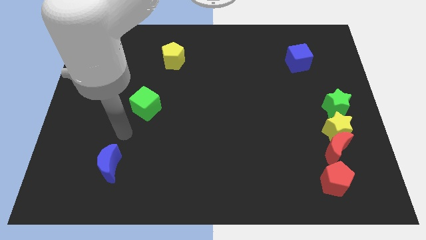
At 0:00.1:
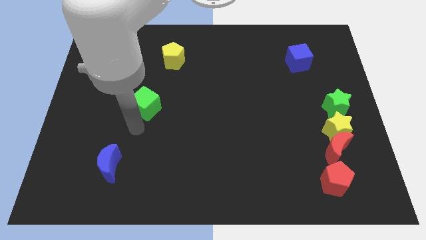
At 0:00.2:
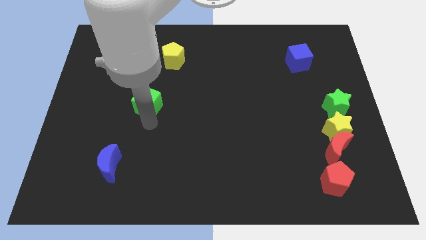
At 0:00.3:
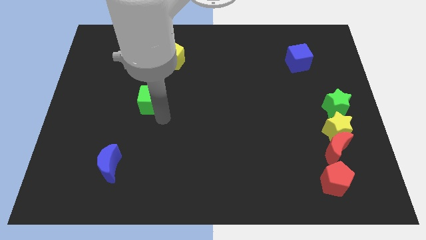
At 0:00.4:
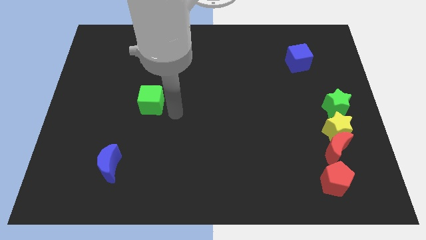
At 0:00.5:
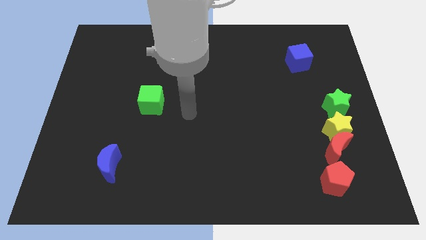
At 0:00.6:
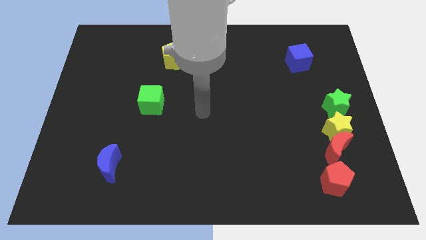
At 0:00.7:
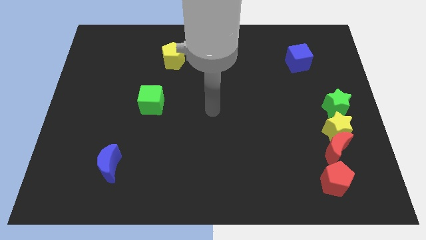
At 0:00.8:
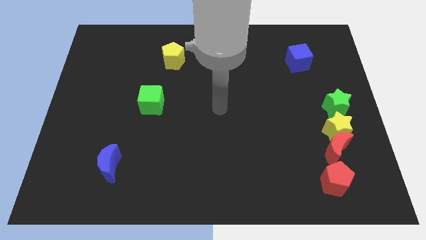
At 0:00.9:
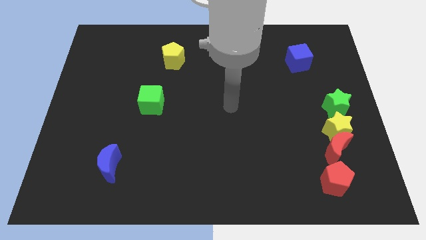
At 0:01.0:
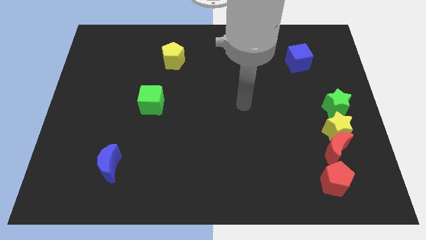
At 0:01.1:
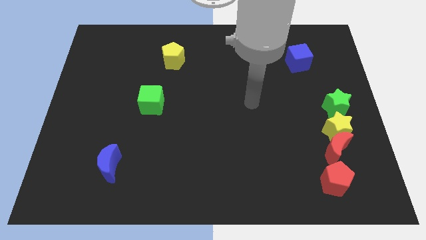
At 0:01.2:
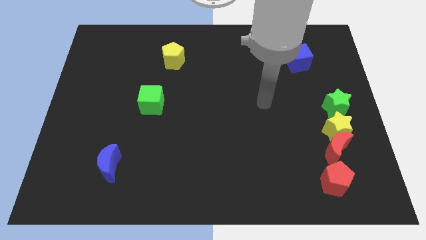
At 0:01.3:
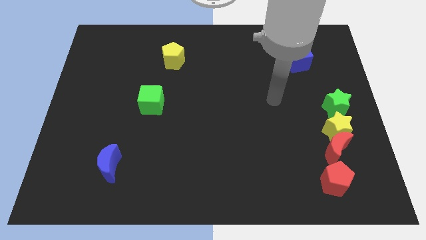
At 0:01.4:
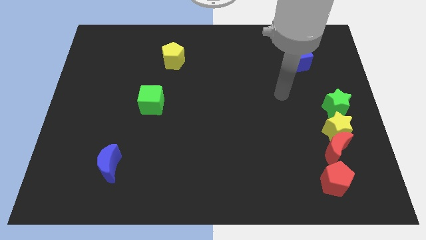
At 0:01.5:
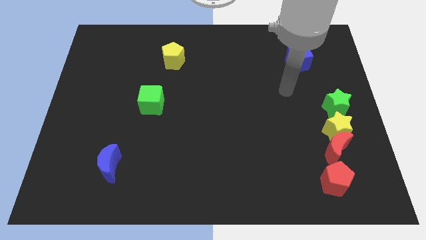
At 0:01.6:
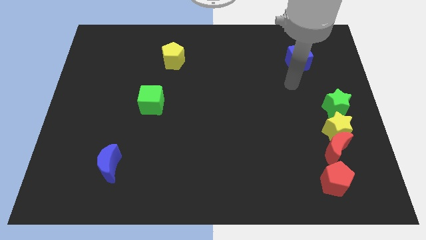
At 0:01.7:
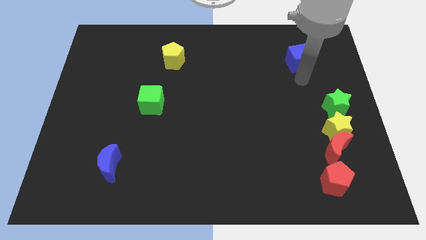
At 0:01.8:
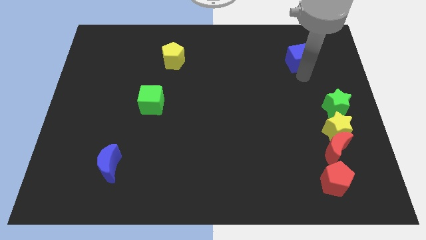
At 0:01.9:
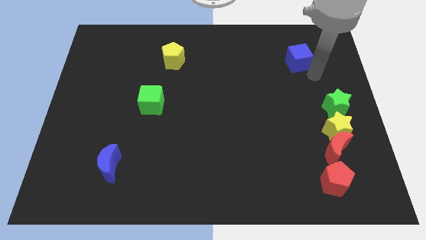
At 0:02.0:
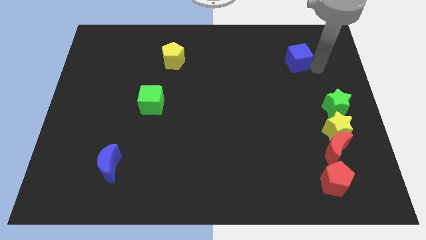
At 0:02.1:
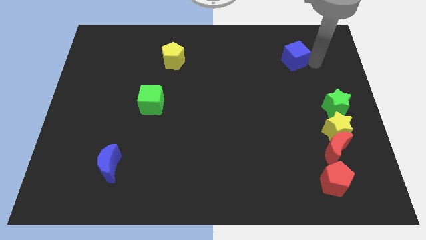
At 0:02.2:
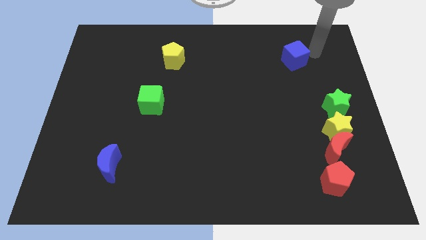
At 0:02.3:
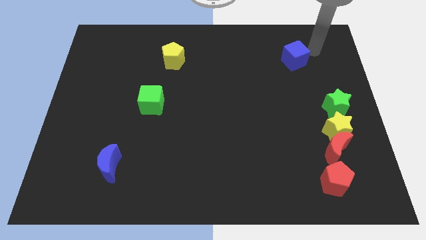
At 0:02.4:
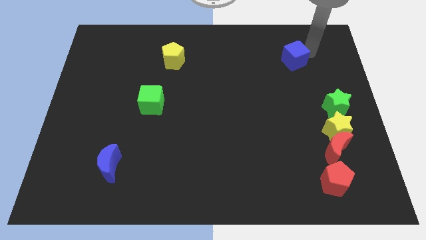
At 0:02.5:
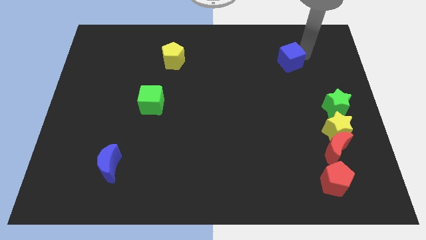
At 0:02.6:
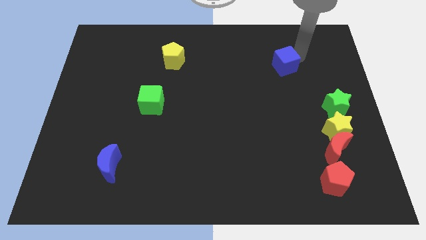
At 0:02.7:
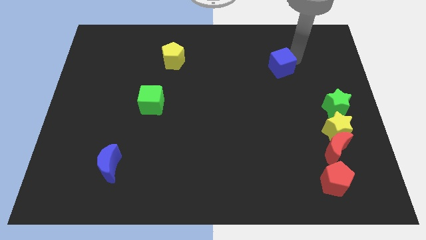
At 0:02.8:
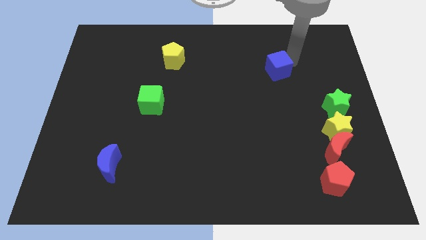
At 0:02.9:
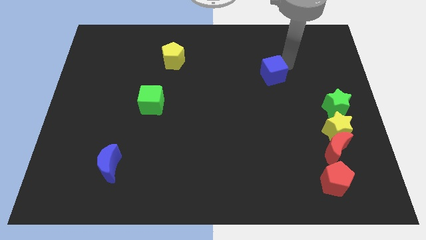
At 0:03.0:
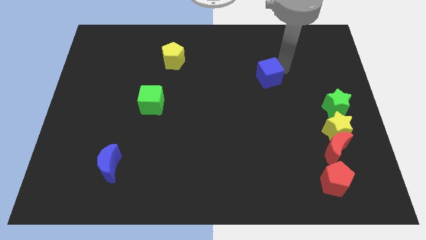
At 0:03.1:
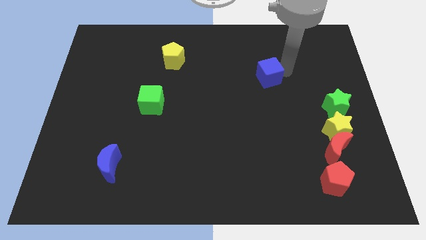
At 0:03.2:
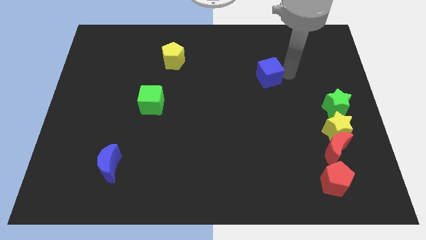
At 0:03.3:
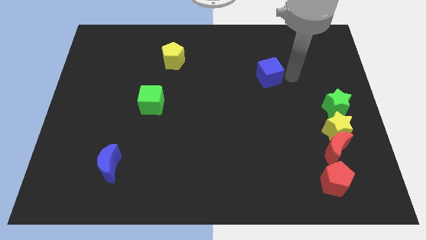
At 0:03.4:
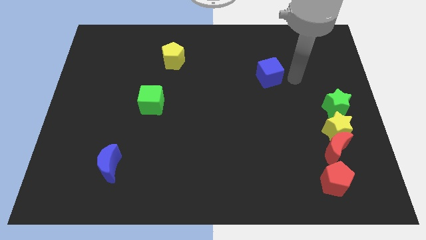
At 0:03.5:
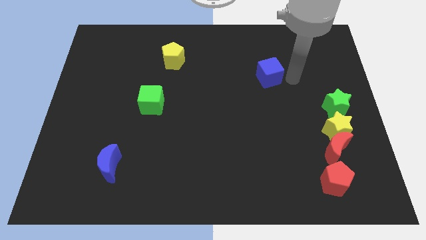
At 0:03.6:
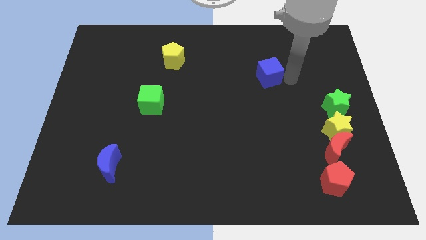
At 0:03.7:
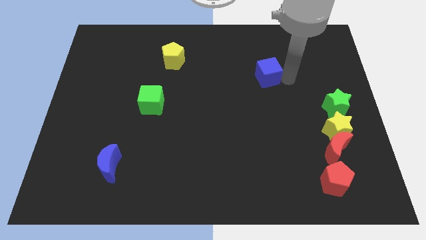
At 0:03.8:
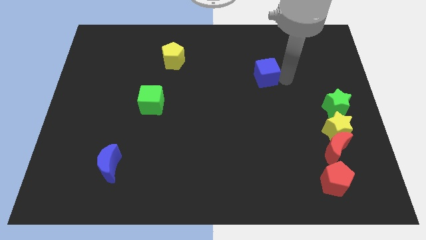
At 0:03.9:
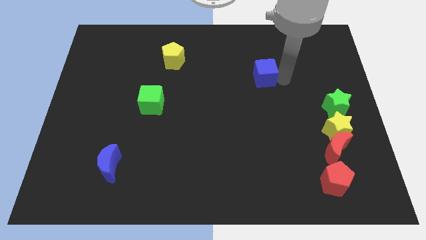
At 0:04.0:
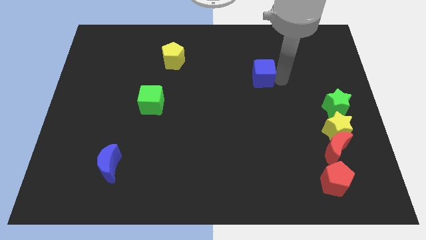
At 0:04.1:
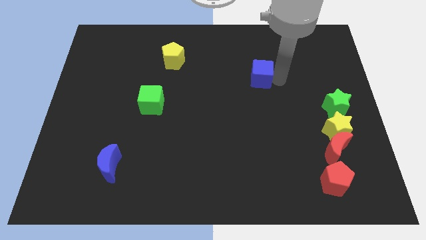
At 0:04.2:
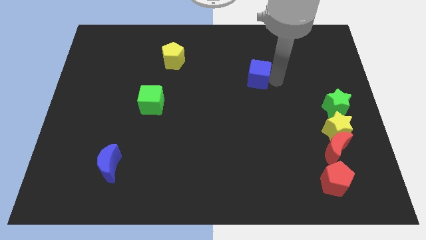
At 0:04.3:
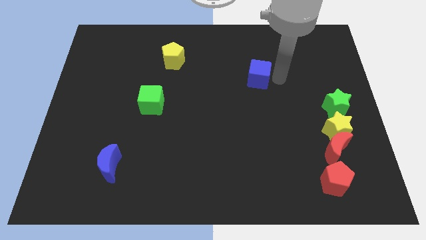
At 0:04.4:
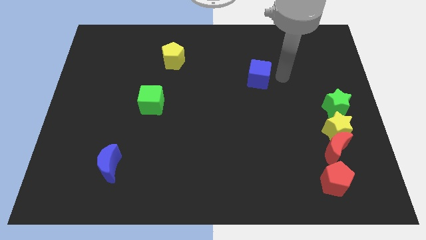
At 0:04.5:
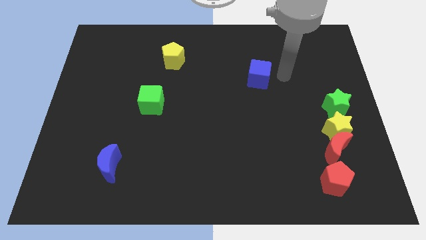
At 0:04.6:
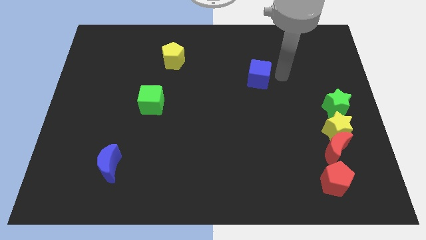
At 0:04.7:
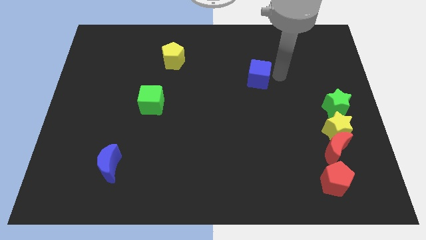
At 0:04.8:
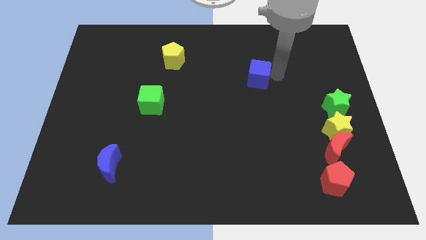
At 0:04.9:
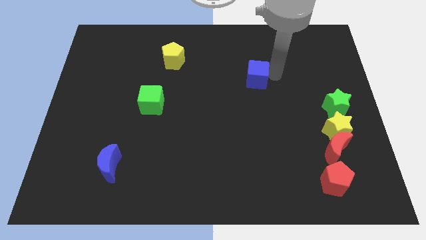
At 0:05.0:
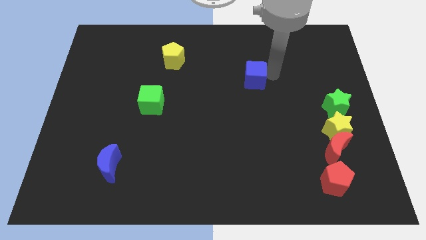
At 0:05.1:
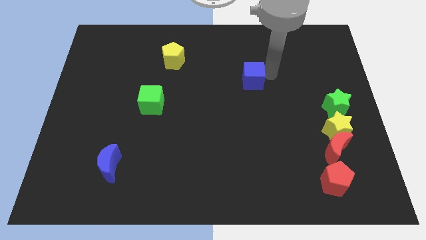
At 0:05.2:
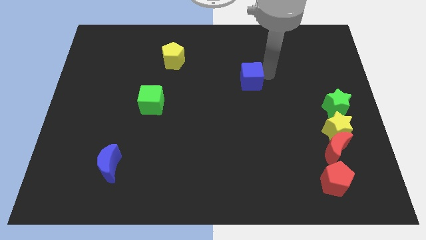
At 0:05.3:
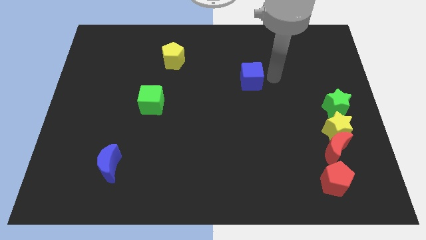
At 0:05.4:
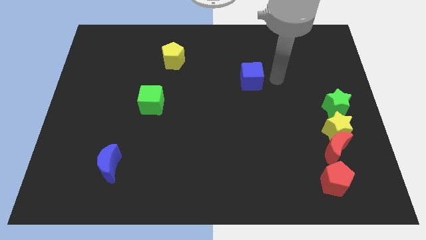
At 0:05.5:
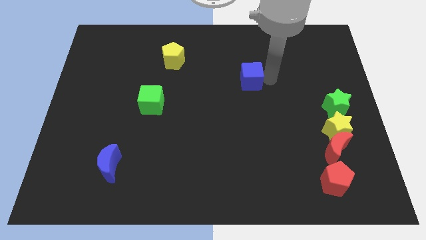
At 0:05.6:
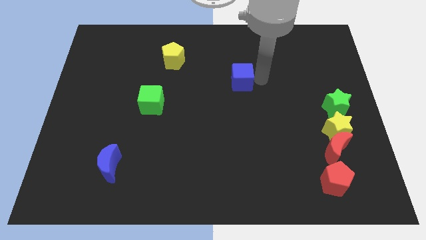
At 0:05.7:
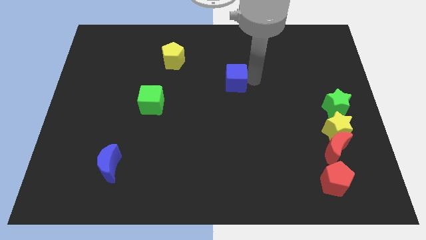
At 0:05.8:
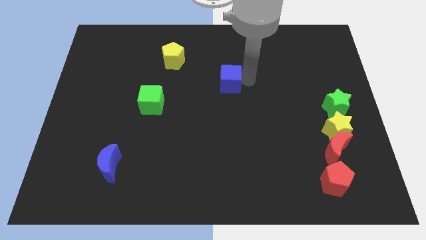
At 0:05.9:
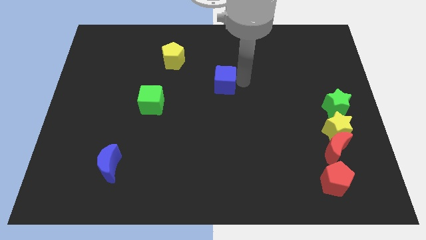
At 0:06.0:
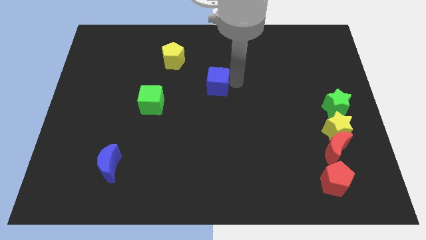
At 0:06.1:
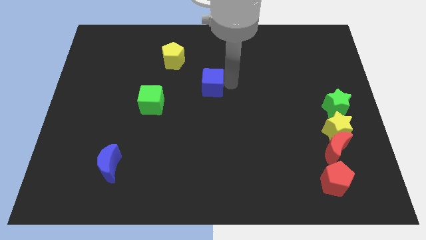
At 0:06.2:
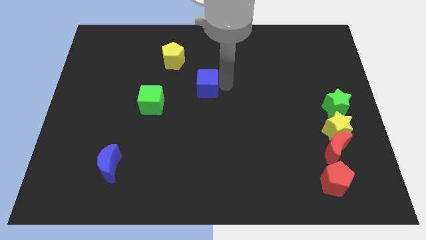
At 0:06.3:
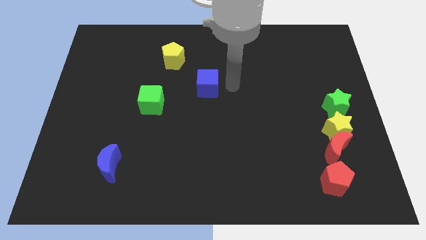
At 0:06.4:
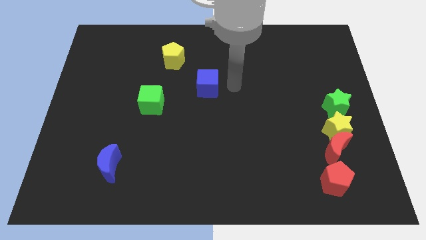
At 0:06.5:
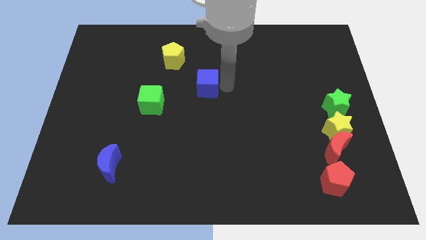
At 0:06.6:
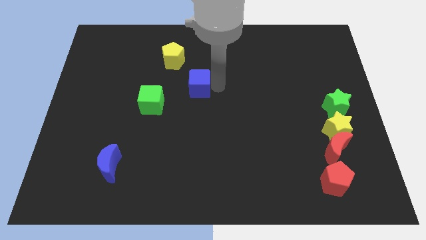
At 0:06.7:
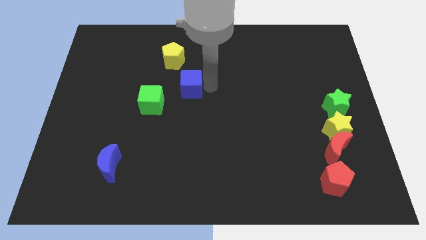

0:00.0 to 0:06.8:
push the blue cube diagonally up and to the right of the green cube

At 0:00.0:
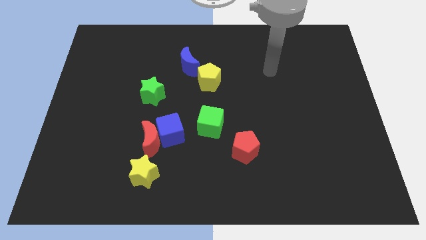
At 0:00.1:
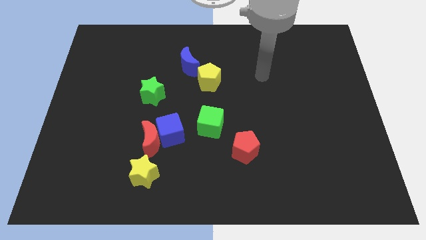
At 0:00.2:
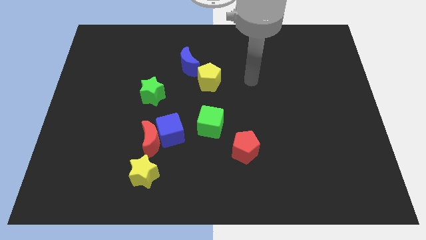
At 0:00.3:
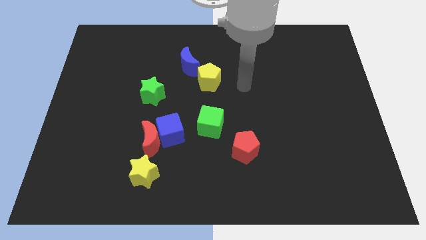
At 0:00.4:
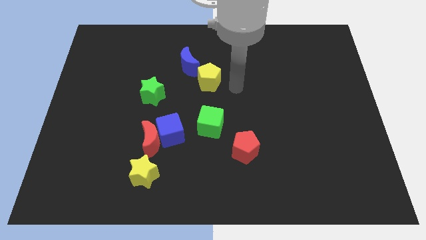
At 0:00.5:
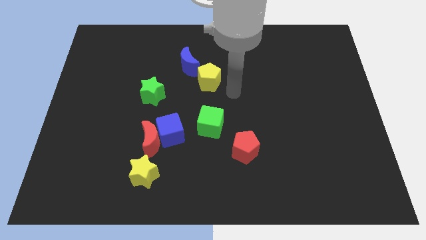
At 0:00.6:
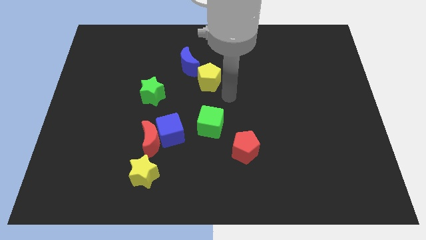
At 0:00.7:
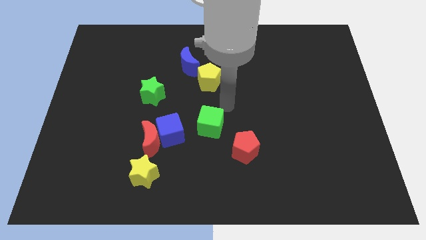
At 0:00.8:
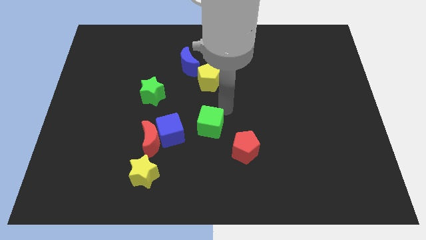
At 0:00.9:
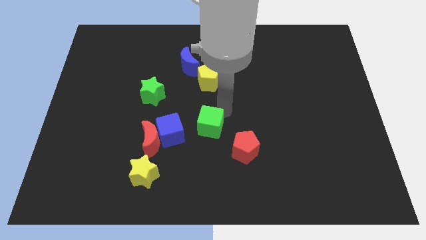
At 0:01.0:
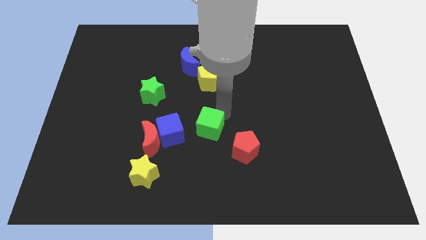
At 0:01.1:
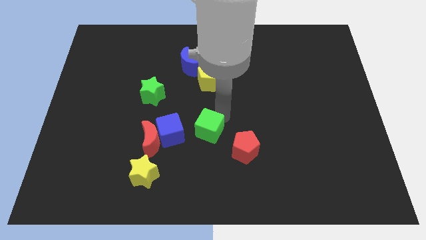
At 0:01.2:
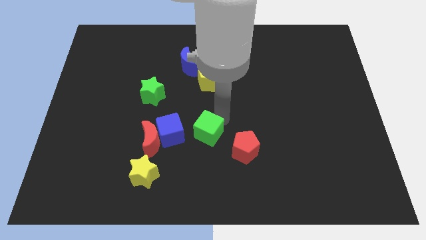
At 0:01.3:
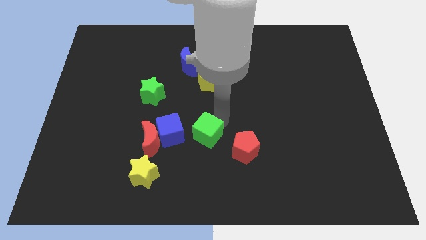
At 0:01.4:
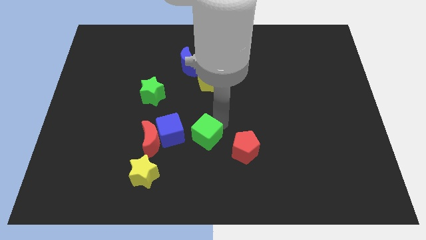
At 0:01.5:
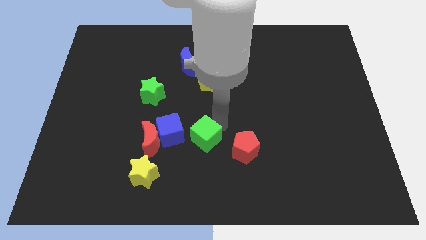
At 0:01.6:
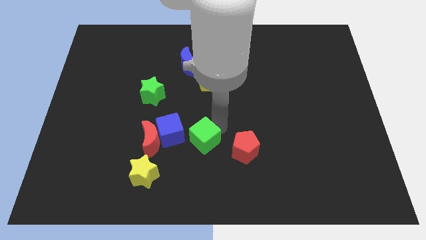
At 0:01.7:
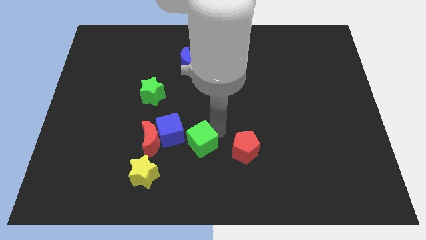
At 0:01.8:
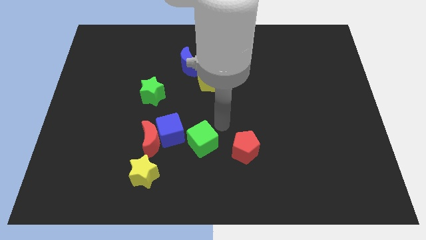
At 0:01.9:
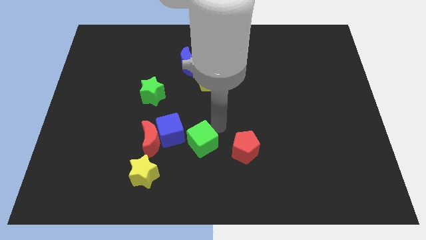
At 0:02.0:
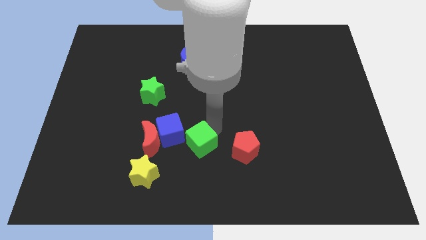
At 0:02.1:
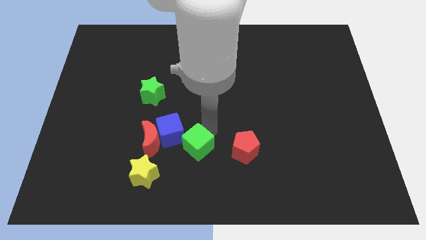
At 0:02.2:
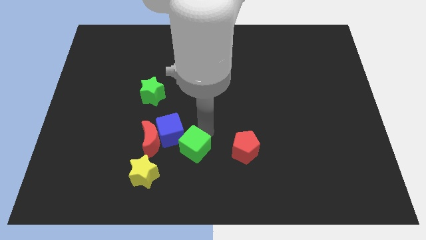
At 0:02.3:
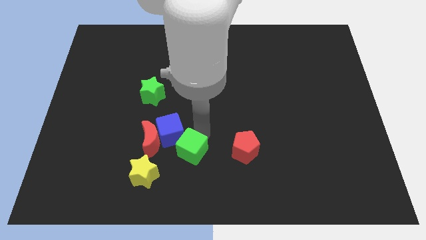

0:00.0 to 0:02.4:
move the green cube to the bottom side of the blue cube
